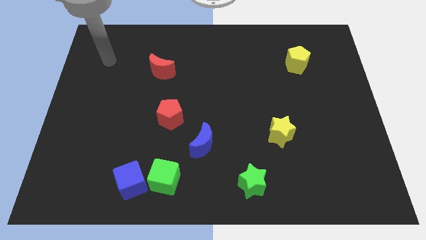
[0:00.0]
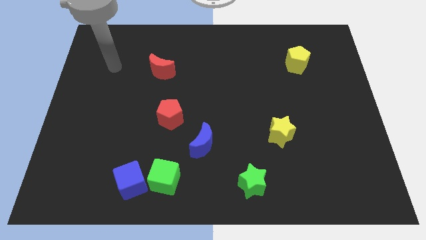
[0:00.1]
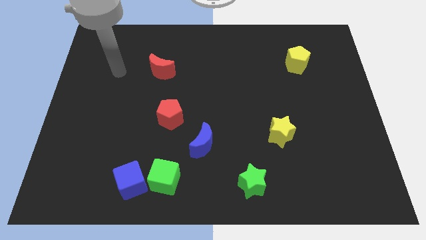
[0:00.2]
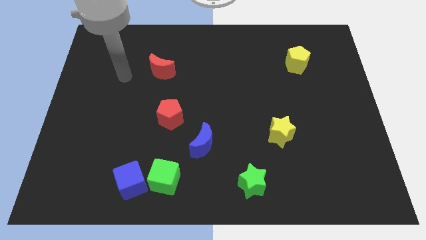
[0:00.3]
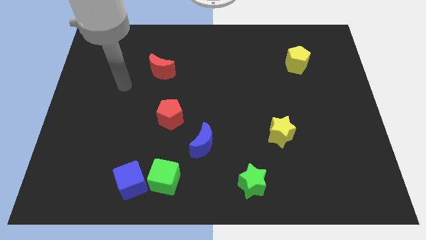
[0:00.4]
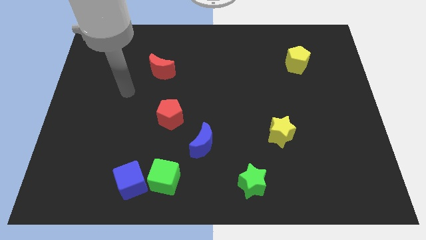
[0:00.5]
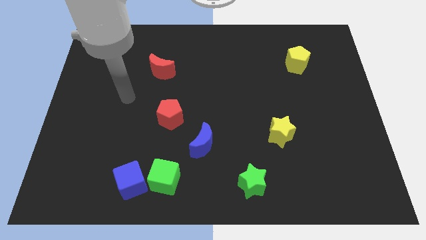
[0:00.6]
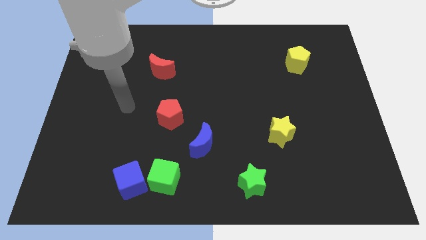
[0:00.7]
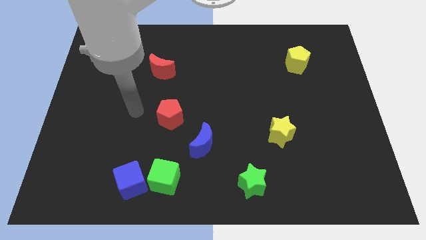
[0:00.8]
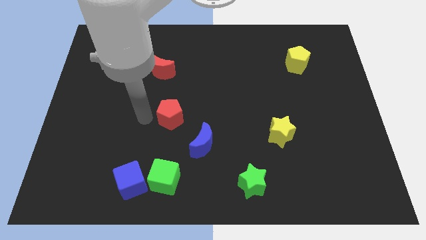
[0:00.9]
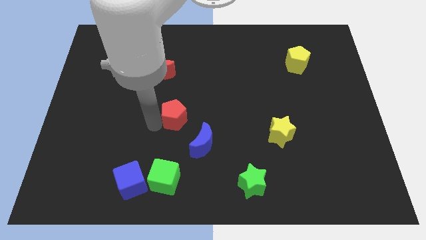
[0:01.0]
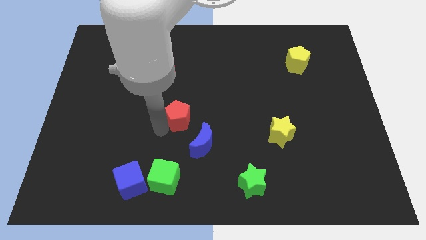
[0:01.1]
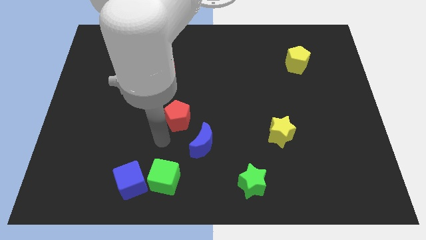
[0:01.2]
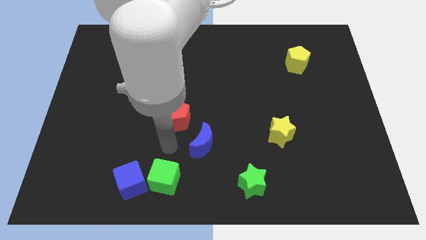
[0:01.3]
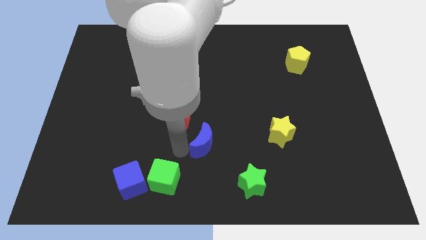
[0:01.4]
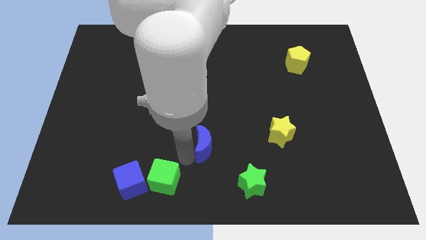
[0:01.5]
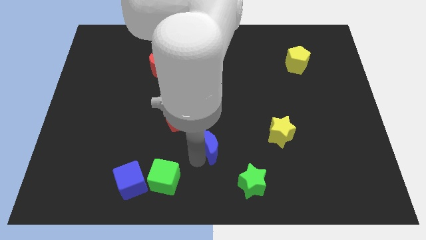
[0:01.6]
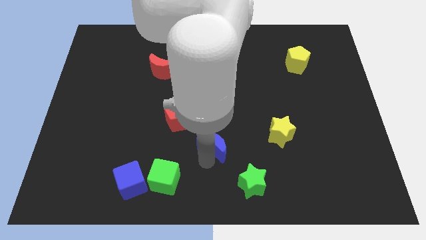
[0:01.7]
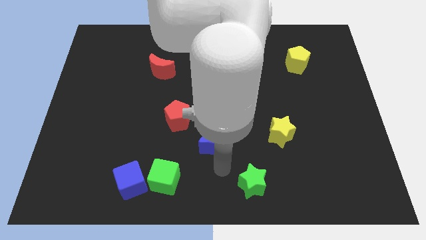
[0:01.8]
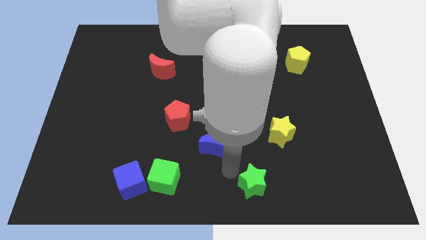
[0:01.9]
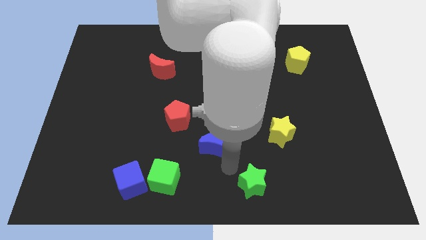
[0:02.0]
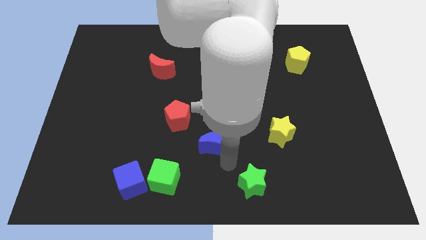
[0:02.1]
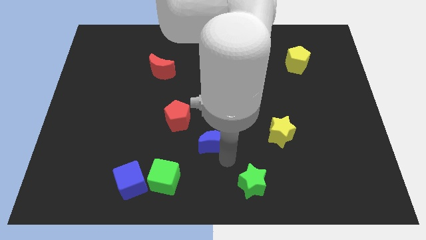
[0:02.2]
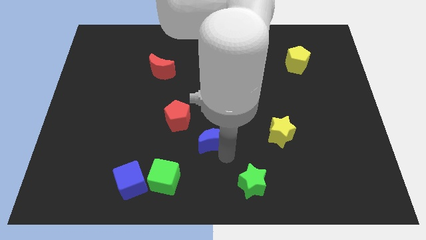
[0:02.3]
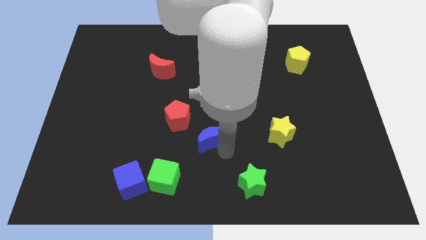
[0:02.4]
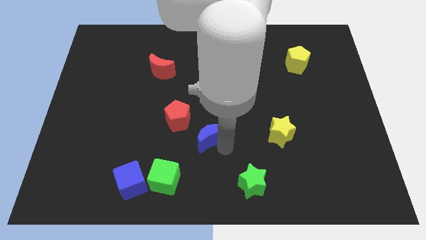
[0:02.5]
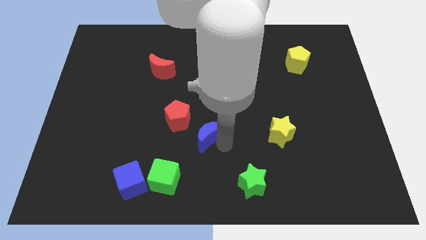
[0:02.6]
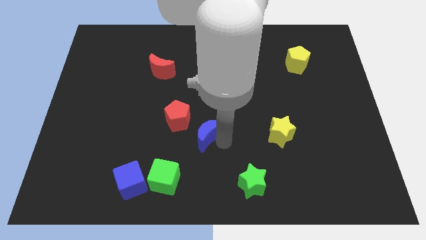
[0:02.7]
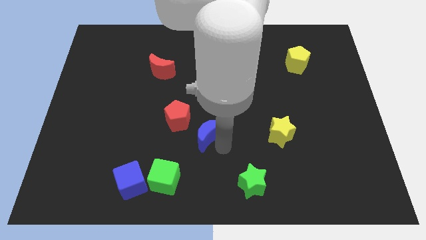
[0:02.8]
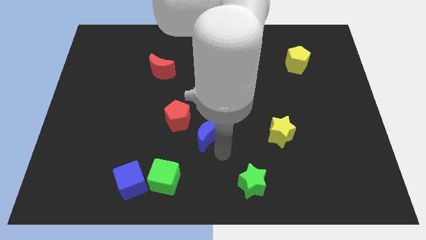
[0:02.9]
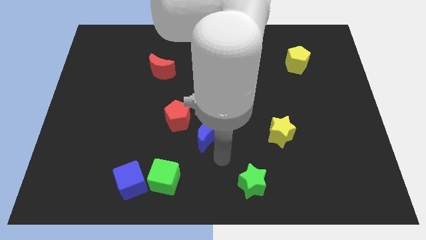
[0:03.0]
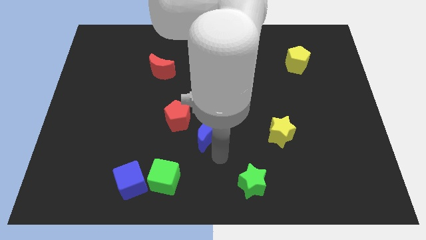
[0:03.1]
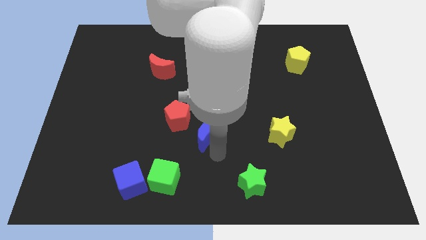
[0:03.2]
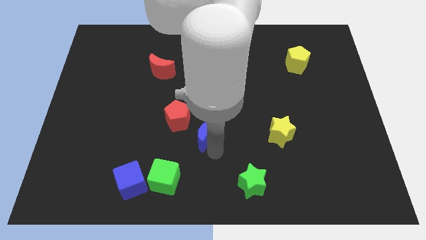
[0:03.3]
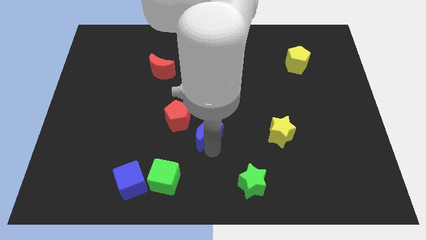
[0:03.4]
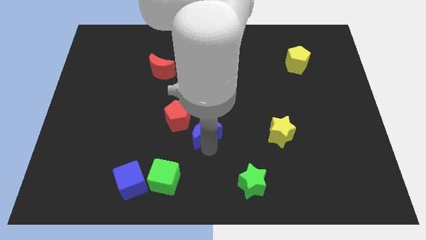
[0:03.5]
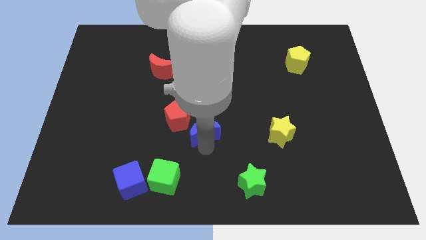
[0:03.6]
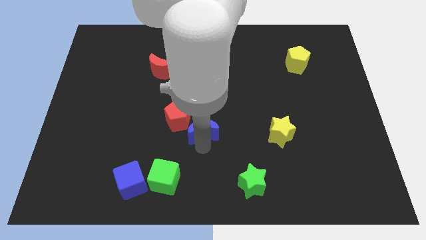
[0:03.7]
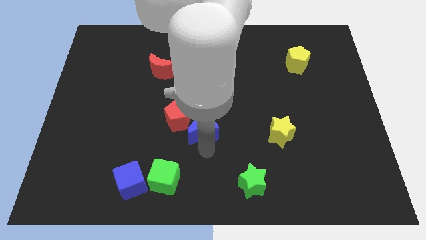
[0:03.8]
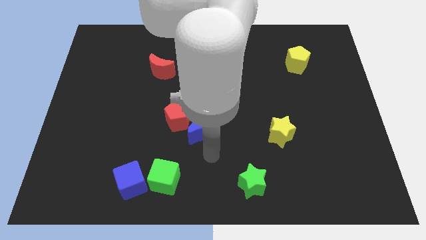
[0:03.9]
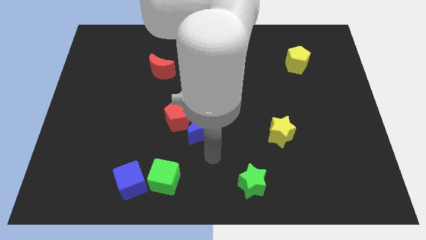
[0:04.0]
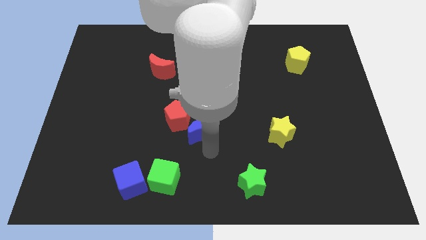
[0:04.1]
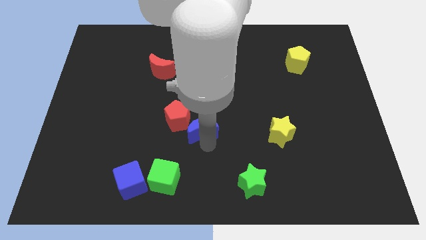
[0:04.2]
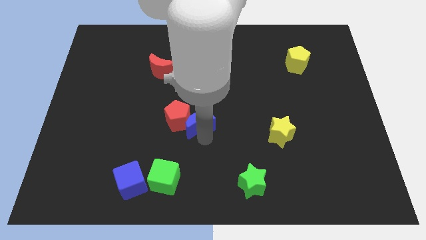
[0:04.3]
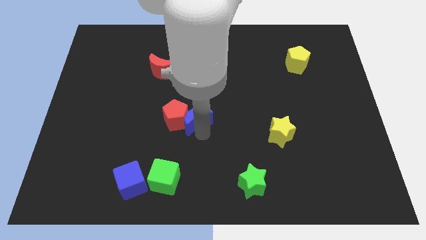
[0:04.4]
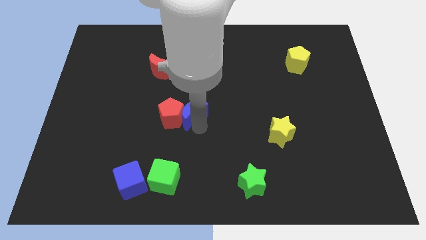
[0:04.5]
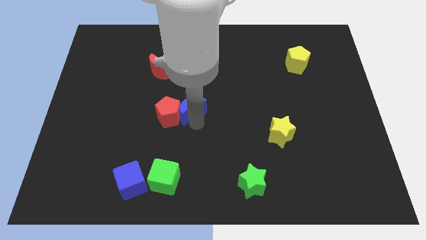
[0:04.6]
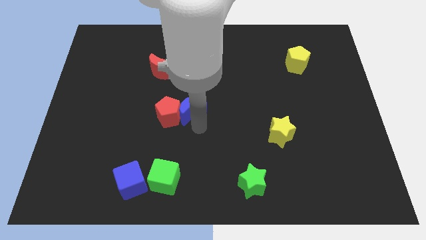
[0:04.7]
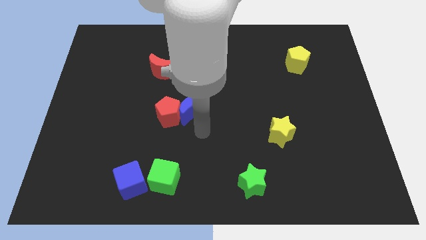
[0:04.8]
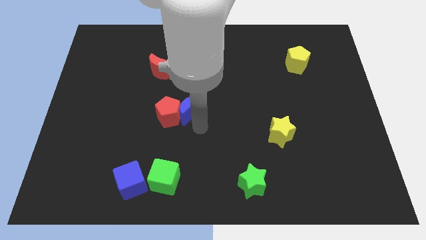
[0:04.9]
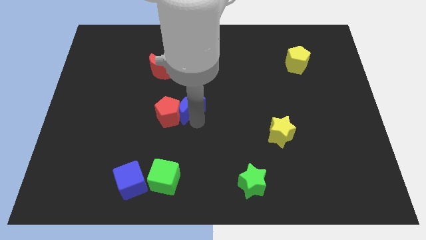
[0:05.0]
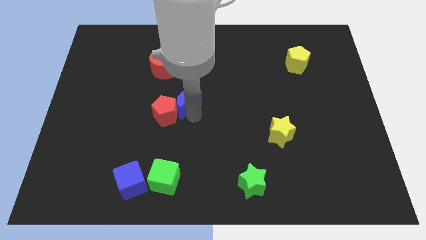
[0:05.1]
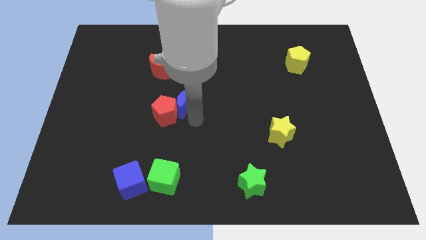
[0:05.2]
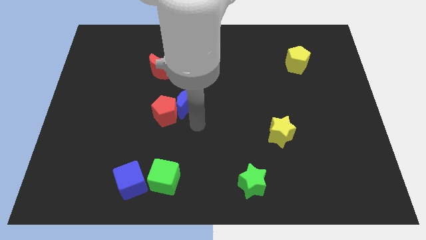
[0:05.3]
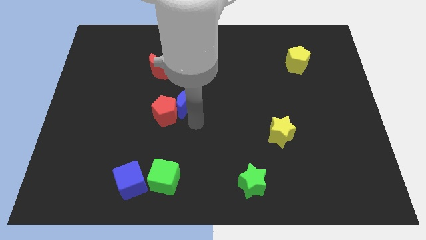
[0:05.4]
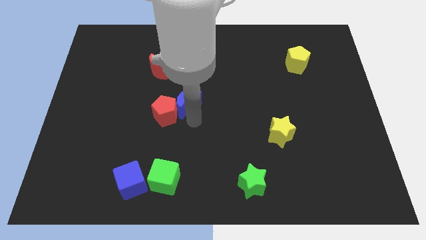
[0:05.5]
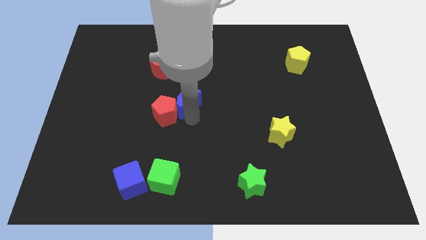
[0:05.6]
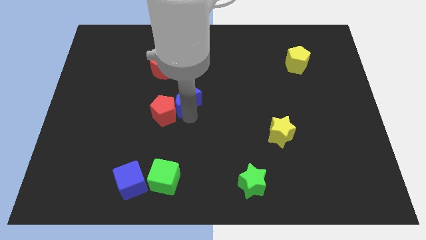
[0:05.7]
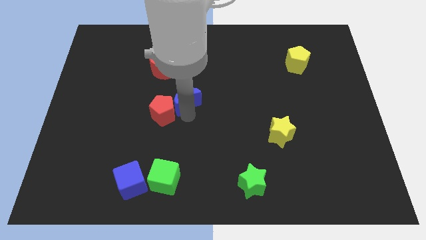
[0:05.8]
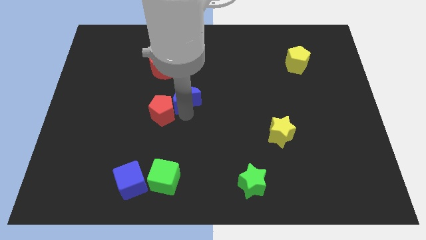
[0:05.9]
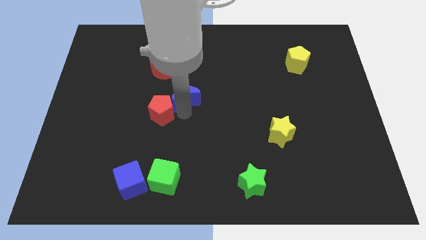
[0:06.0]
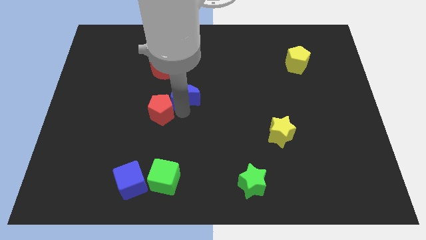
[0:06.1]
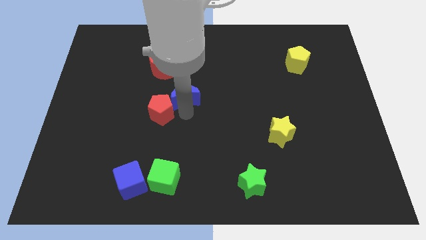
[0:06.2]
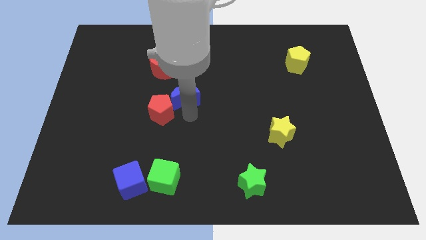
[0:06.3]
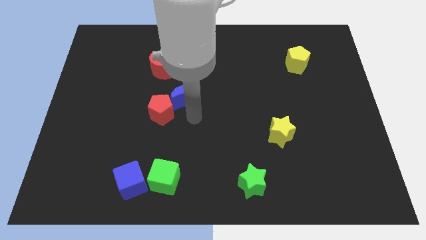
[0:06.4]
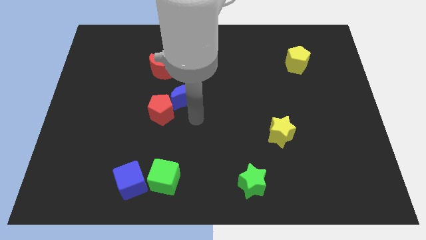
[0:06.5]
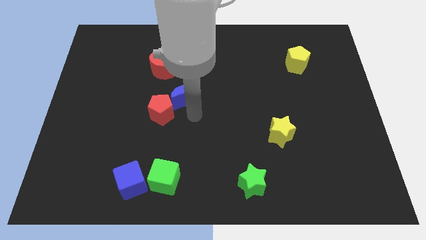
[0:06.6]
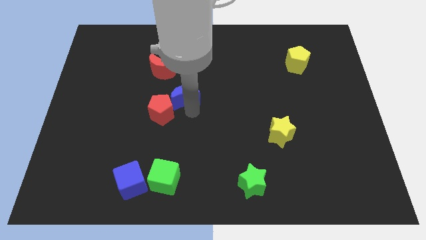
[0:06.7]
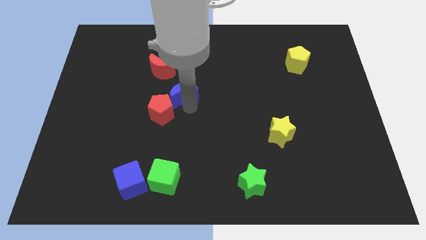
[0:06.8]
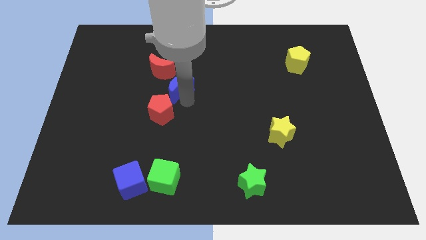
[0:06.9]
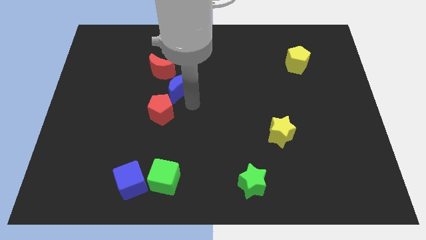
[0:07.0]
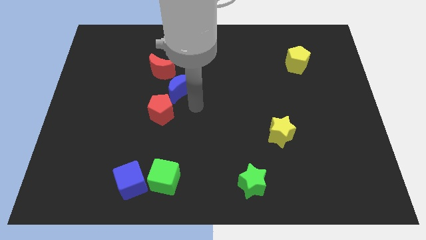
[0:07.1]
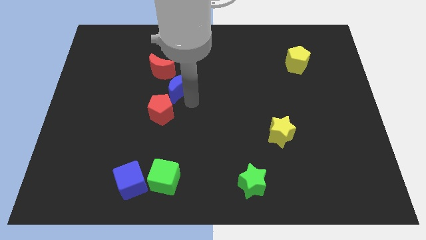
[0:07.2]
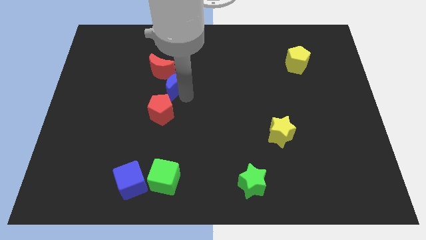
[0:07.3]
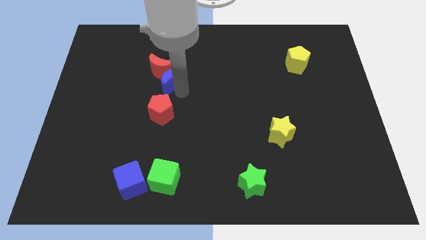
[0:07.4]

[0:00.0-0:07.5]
push the blue moon next to the red moon
